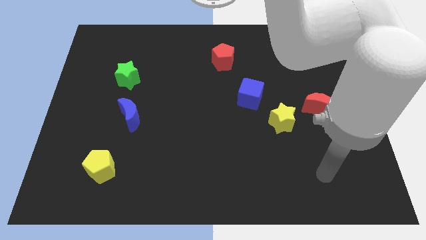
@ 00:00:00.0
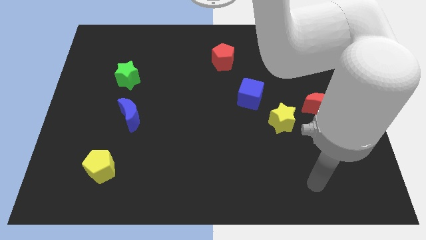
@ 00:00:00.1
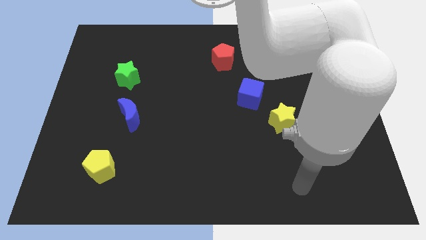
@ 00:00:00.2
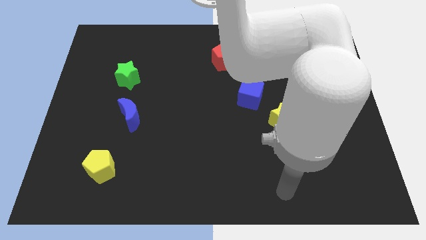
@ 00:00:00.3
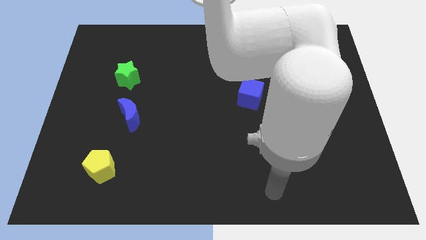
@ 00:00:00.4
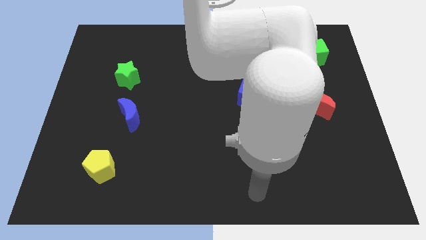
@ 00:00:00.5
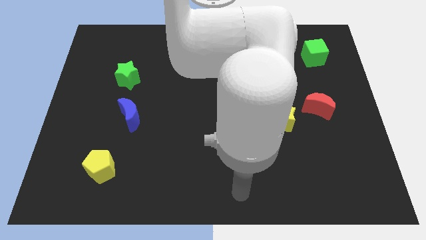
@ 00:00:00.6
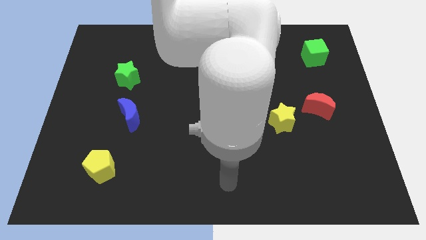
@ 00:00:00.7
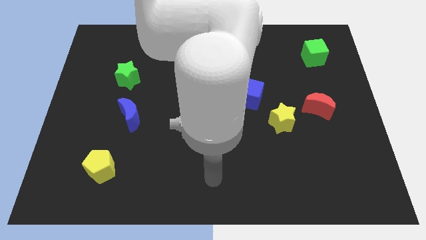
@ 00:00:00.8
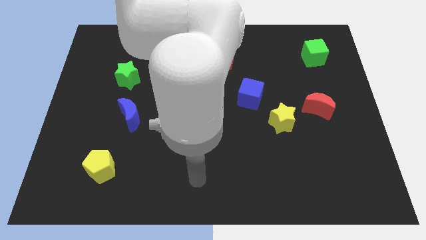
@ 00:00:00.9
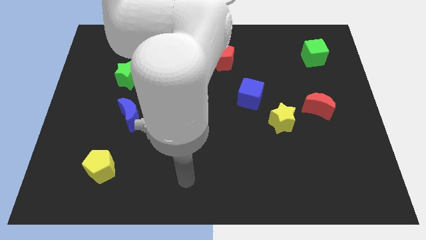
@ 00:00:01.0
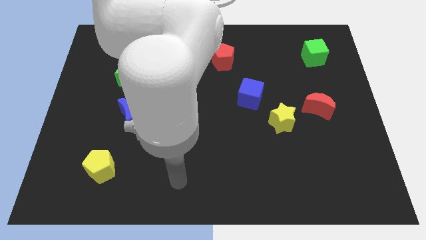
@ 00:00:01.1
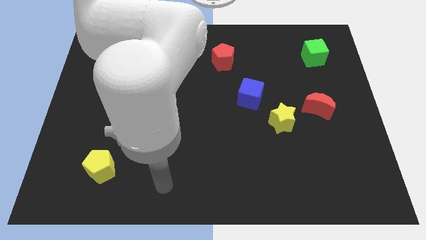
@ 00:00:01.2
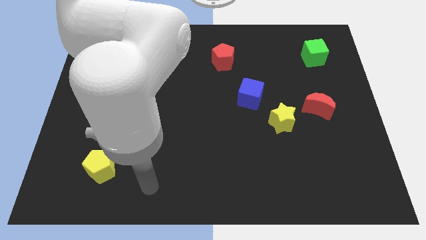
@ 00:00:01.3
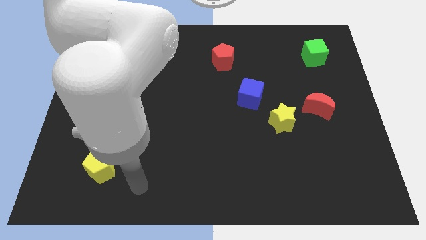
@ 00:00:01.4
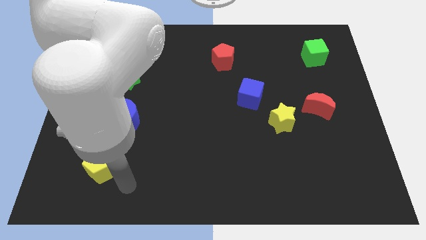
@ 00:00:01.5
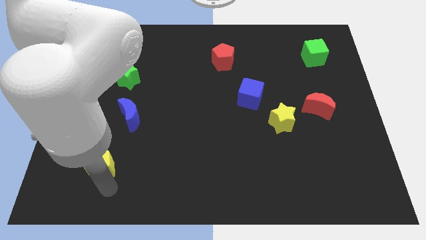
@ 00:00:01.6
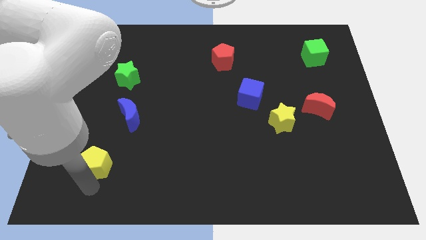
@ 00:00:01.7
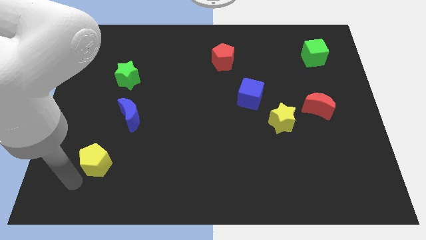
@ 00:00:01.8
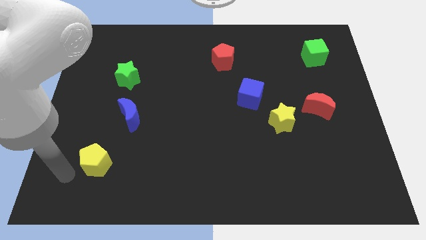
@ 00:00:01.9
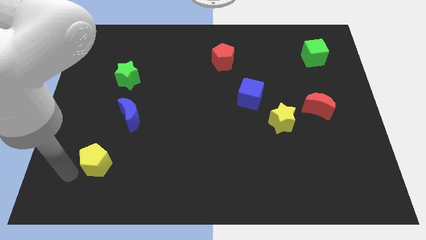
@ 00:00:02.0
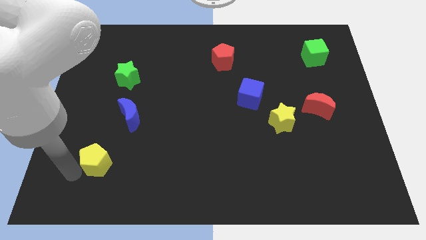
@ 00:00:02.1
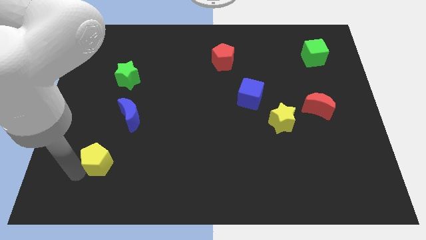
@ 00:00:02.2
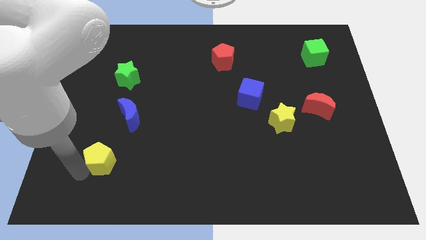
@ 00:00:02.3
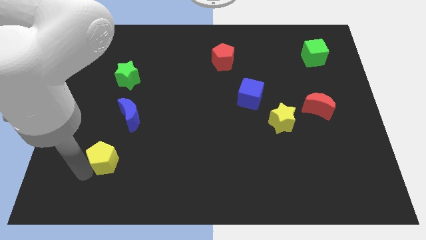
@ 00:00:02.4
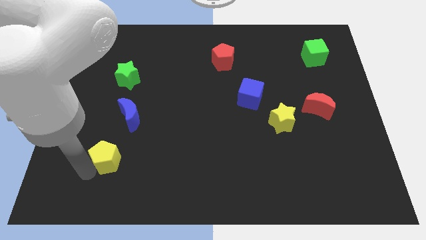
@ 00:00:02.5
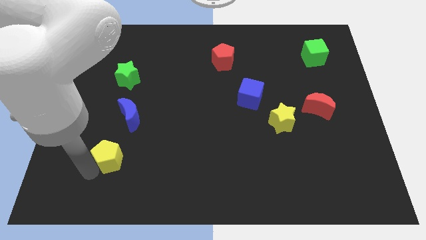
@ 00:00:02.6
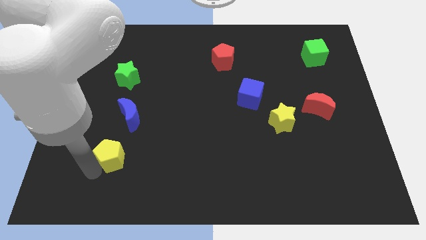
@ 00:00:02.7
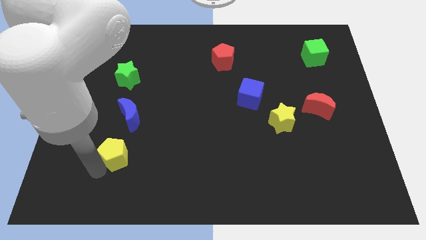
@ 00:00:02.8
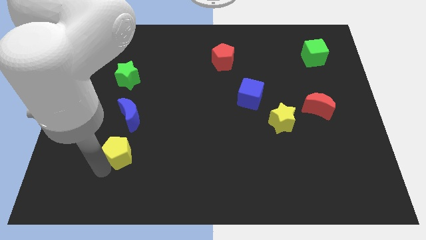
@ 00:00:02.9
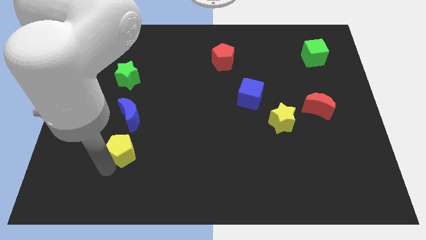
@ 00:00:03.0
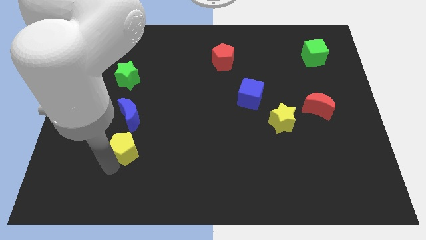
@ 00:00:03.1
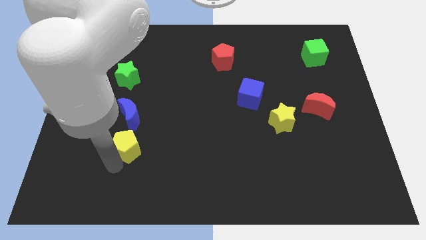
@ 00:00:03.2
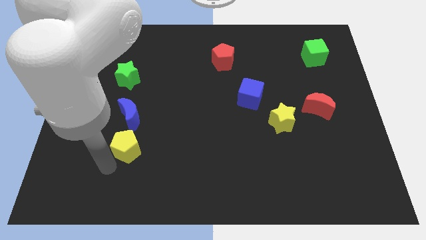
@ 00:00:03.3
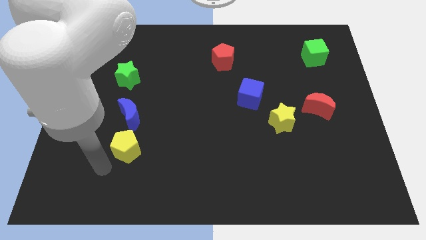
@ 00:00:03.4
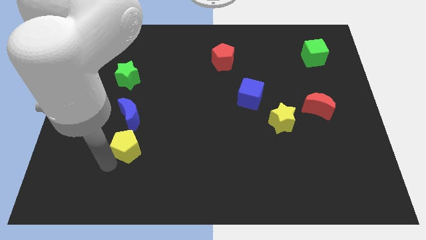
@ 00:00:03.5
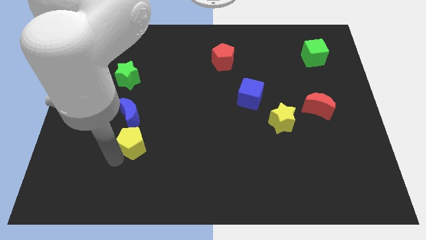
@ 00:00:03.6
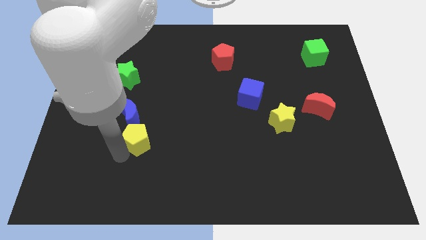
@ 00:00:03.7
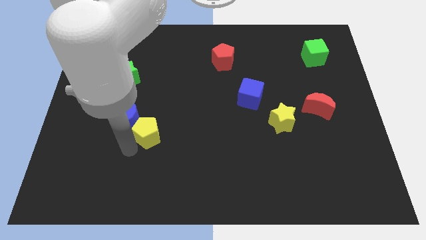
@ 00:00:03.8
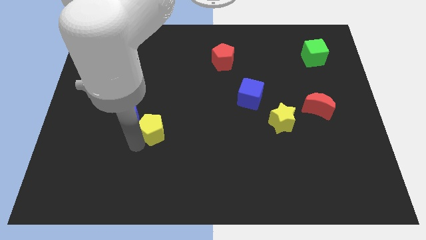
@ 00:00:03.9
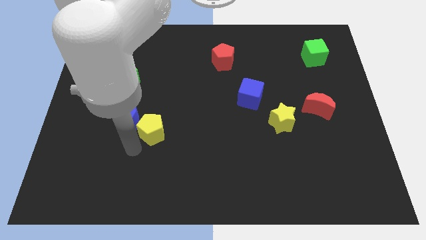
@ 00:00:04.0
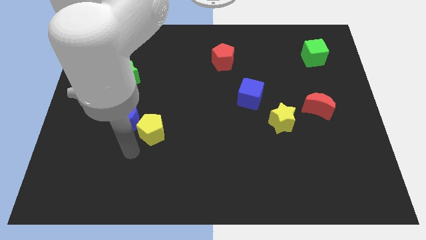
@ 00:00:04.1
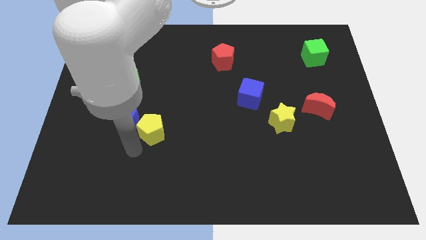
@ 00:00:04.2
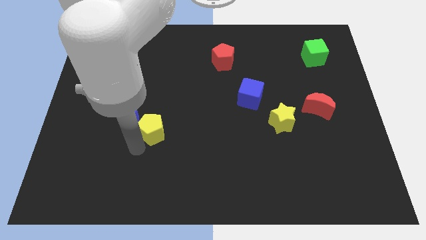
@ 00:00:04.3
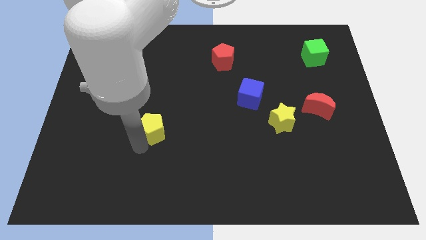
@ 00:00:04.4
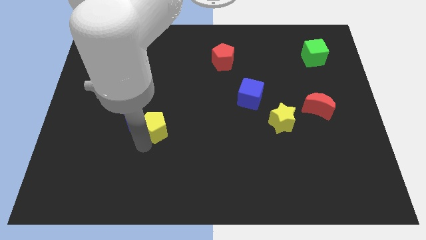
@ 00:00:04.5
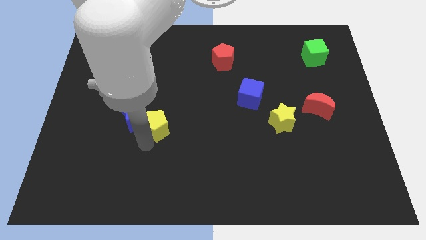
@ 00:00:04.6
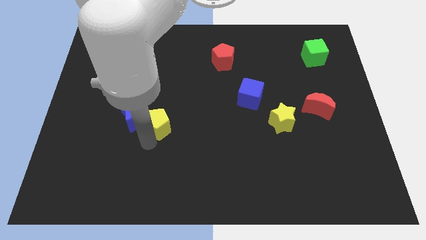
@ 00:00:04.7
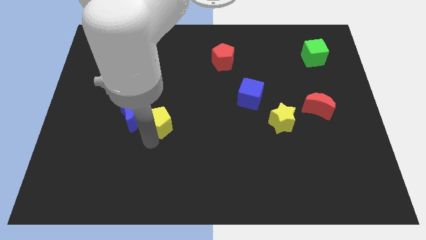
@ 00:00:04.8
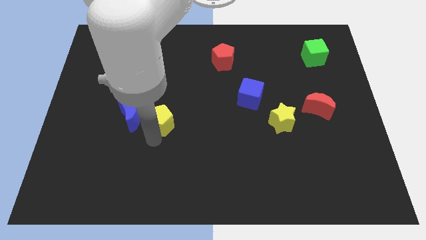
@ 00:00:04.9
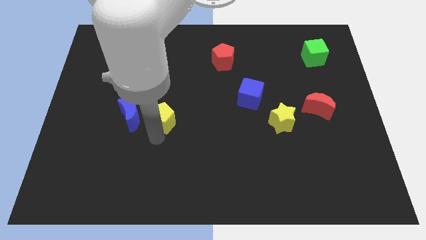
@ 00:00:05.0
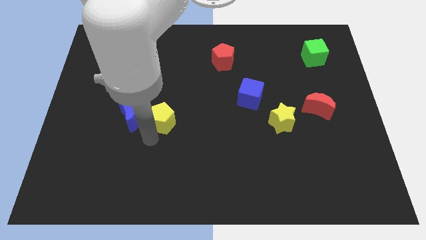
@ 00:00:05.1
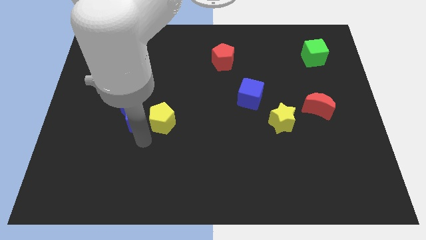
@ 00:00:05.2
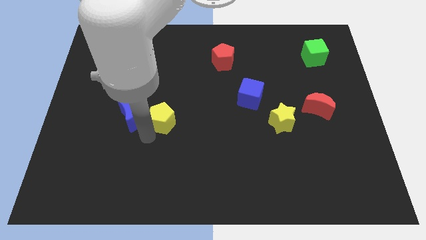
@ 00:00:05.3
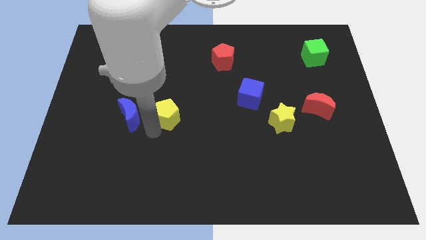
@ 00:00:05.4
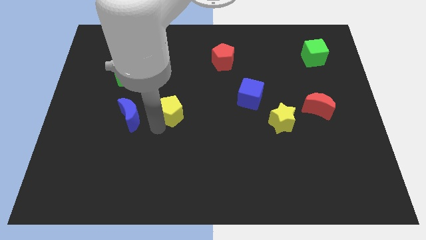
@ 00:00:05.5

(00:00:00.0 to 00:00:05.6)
push the yellow pentagon upwards and then to the right

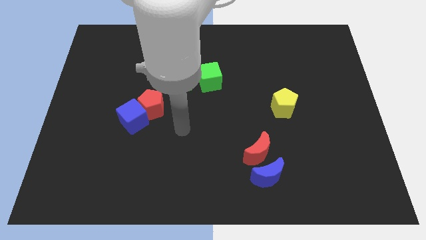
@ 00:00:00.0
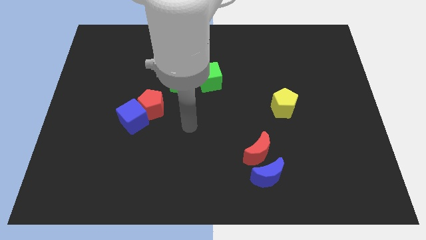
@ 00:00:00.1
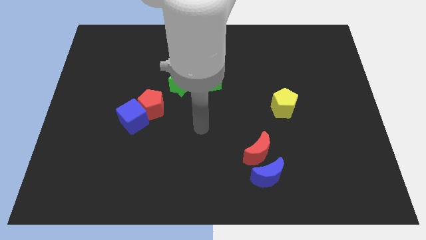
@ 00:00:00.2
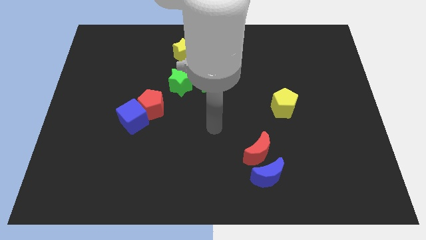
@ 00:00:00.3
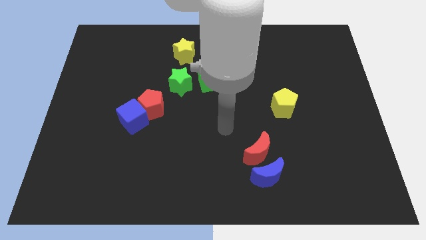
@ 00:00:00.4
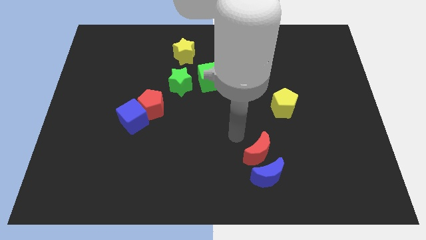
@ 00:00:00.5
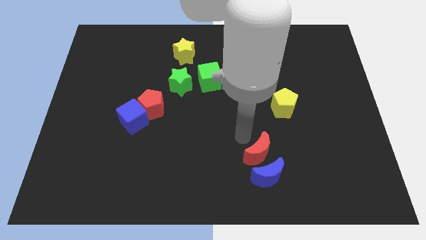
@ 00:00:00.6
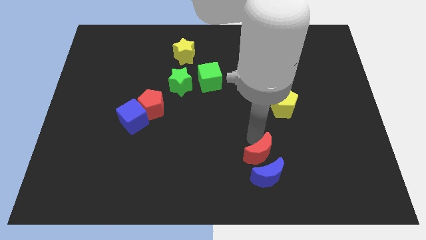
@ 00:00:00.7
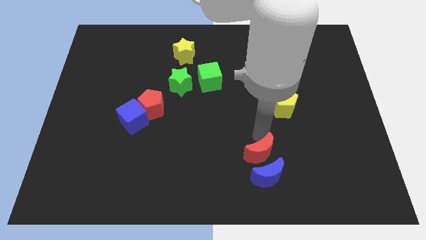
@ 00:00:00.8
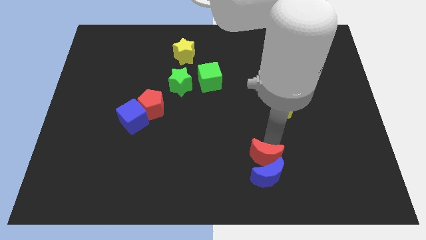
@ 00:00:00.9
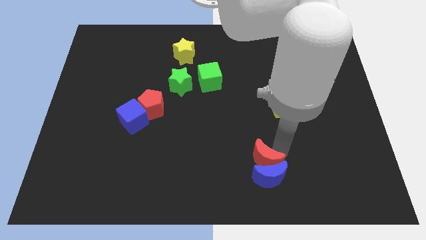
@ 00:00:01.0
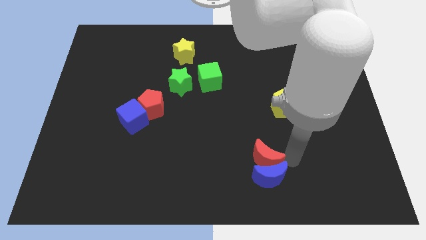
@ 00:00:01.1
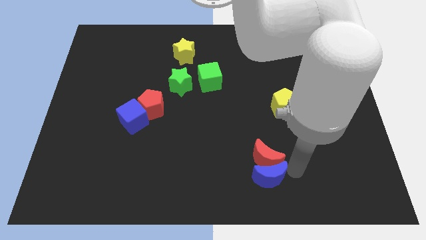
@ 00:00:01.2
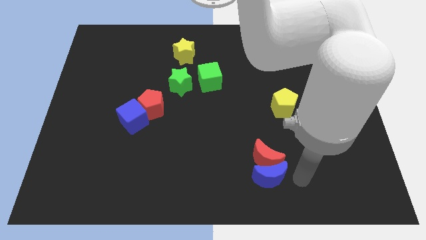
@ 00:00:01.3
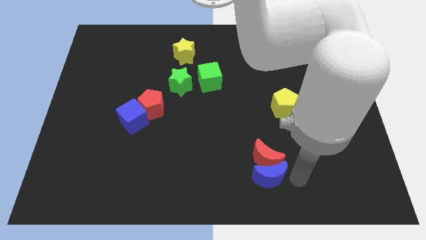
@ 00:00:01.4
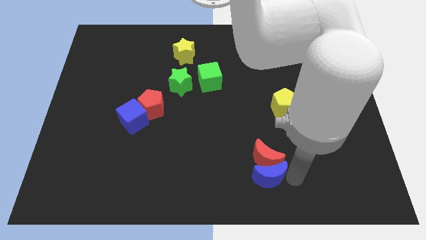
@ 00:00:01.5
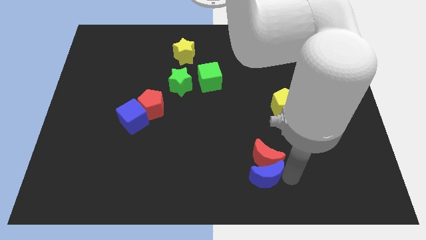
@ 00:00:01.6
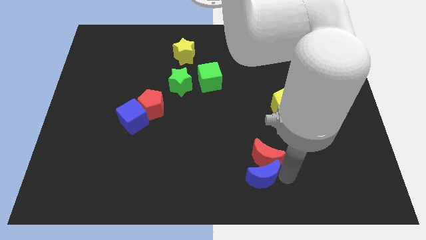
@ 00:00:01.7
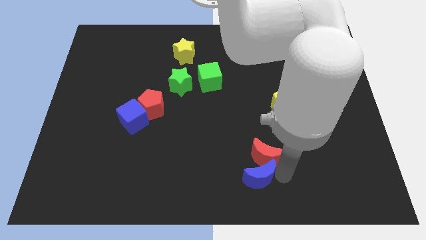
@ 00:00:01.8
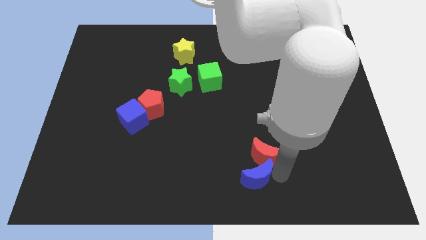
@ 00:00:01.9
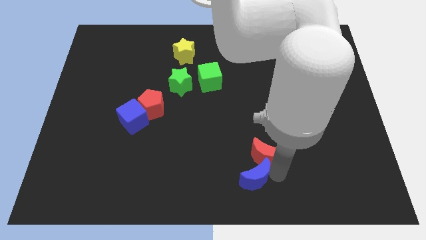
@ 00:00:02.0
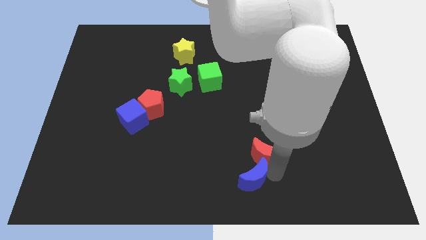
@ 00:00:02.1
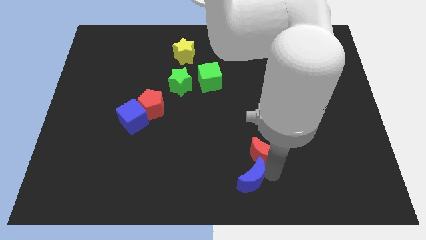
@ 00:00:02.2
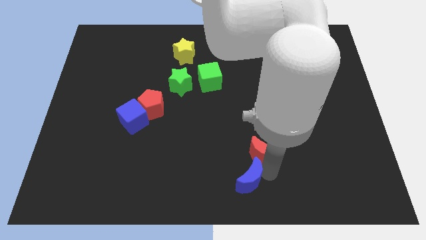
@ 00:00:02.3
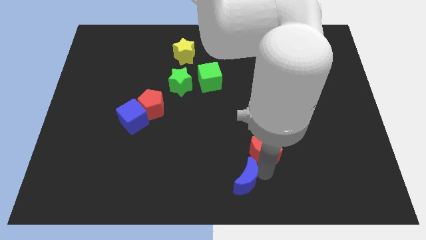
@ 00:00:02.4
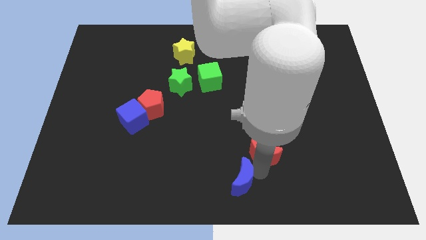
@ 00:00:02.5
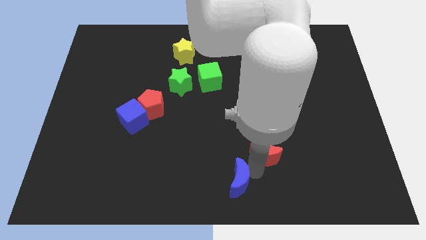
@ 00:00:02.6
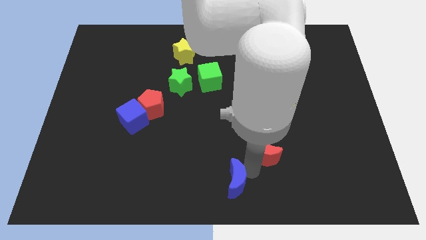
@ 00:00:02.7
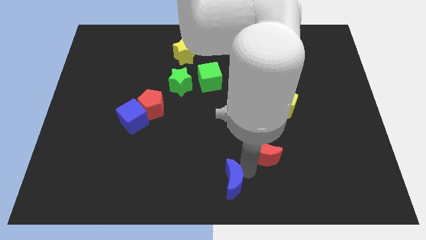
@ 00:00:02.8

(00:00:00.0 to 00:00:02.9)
push the blue moon a little left
